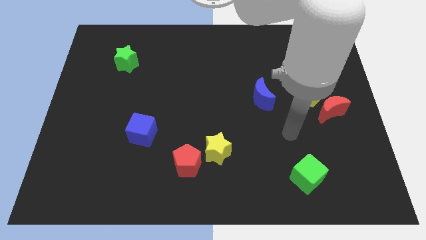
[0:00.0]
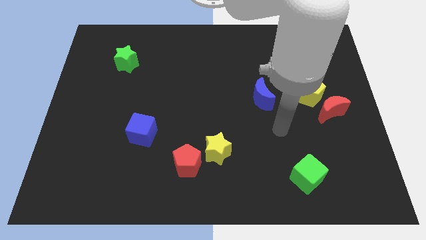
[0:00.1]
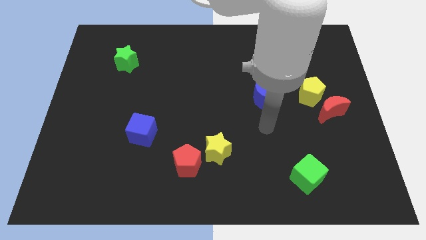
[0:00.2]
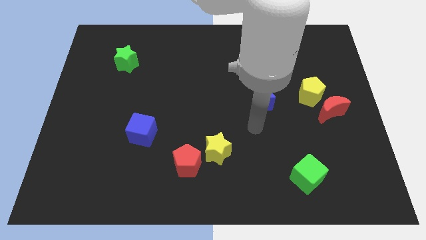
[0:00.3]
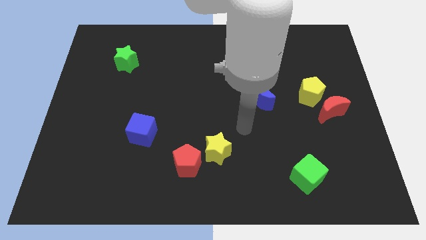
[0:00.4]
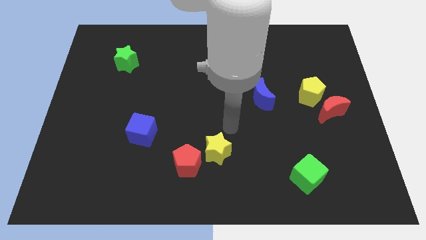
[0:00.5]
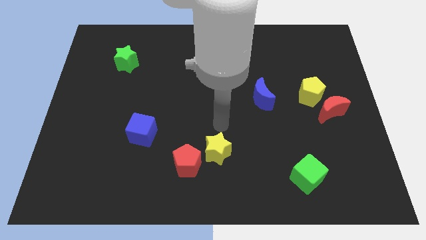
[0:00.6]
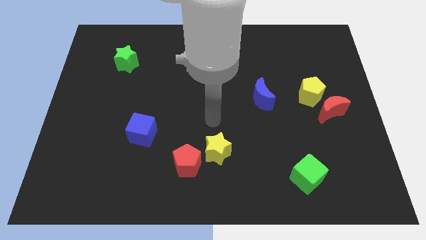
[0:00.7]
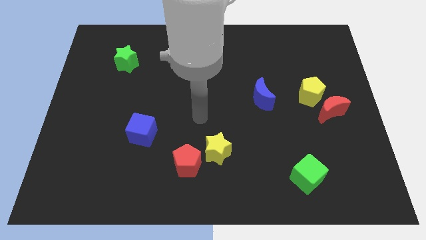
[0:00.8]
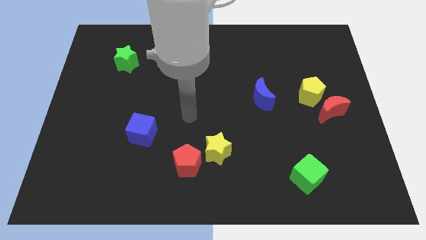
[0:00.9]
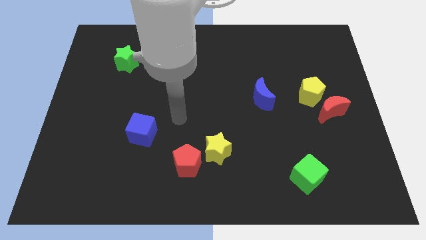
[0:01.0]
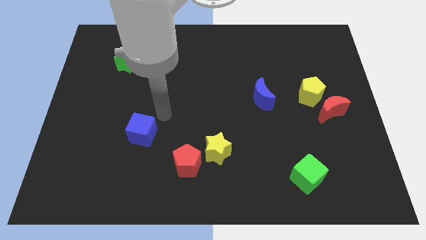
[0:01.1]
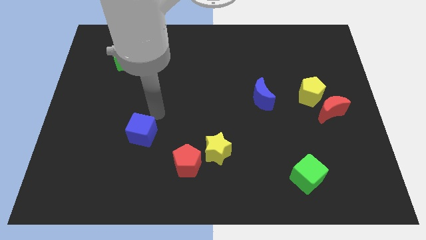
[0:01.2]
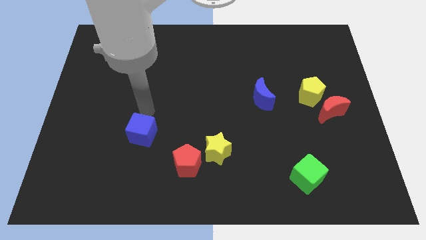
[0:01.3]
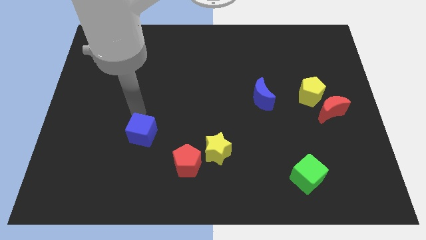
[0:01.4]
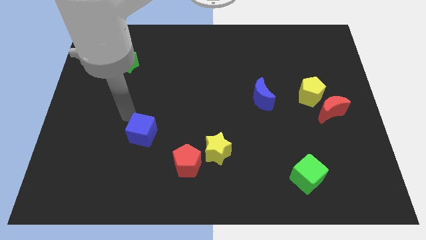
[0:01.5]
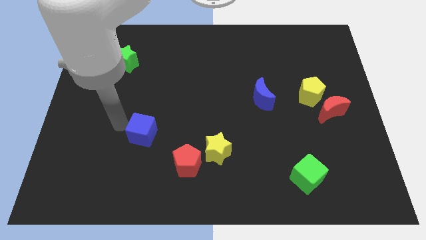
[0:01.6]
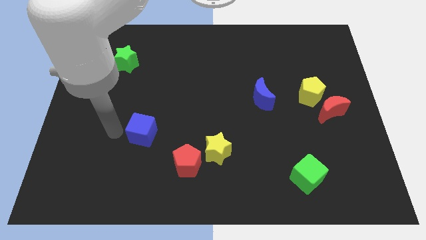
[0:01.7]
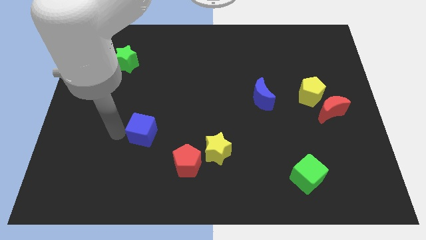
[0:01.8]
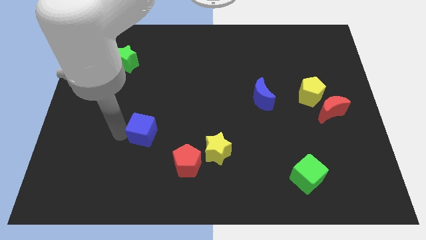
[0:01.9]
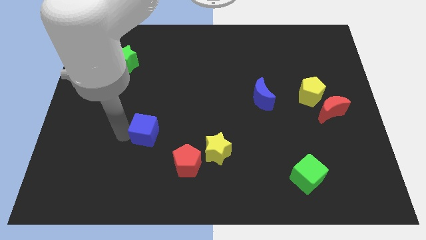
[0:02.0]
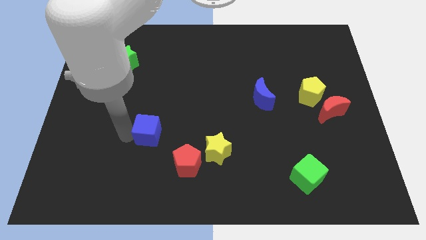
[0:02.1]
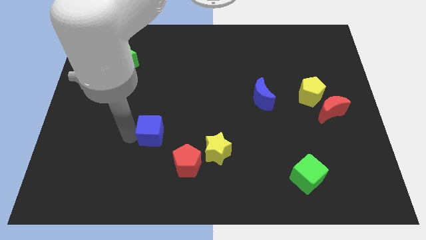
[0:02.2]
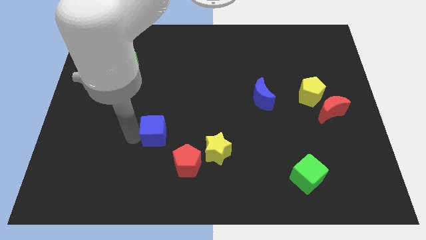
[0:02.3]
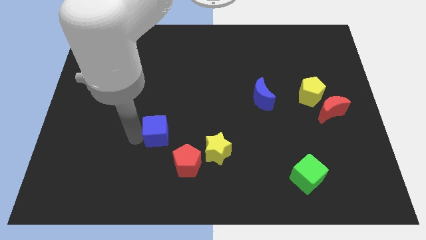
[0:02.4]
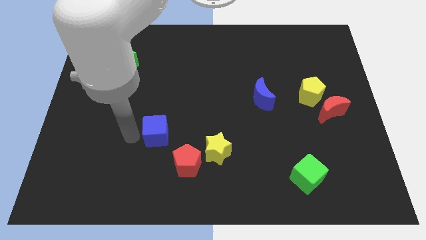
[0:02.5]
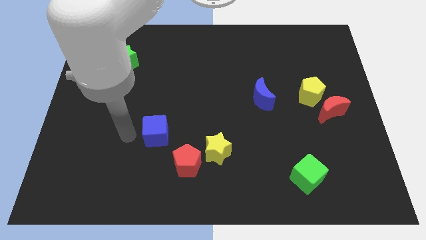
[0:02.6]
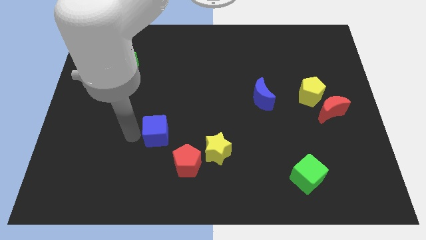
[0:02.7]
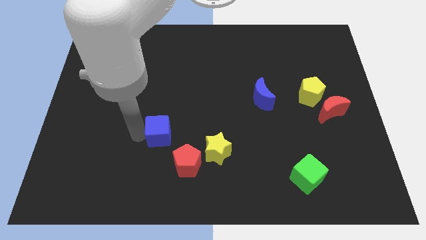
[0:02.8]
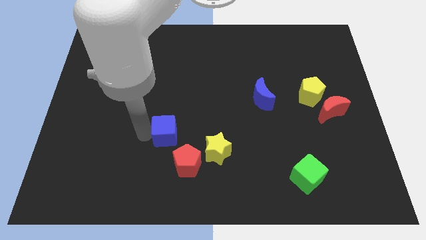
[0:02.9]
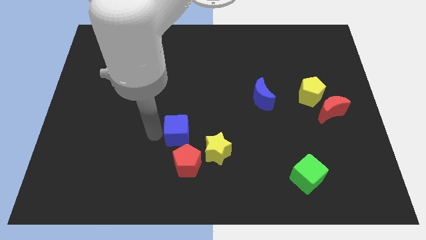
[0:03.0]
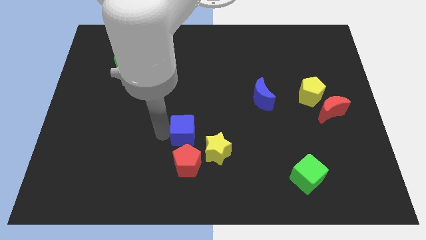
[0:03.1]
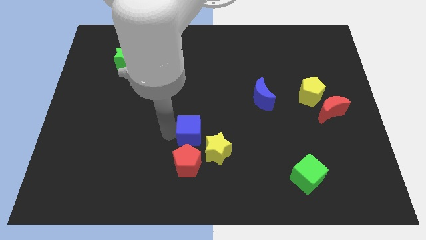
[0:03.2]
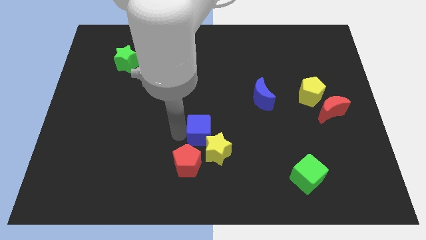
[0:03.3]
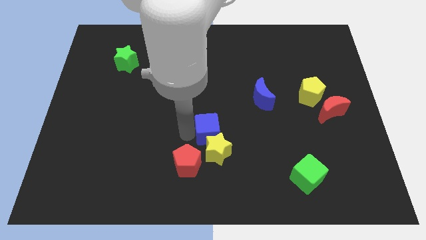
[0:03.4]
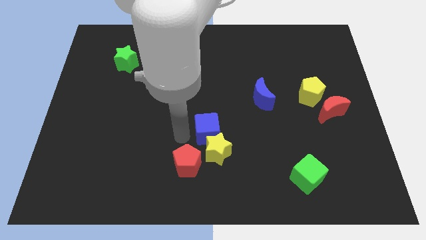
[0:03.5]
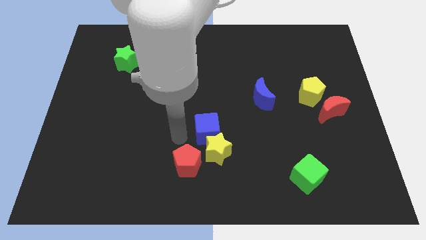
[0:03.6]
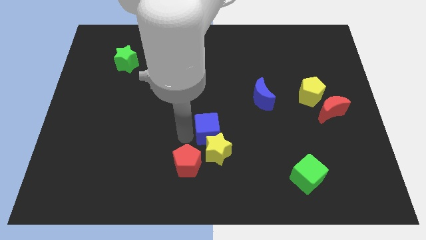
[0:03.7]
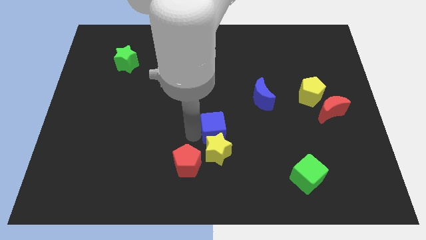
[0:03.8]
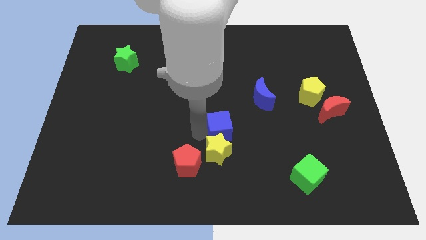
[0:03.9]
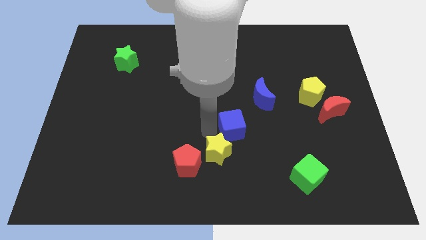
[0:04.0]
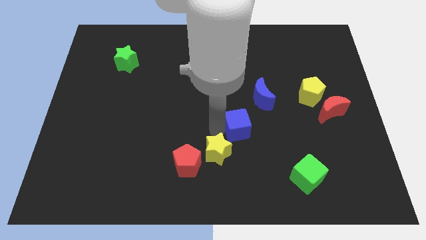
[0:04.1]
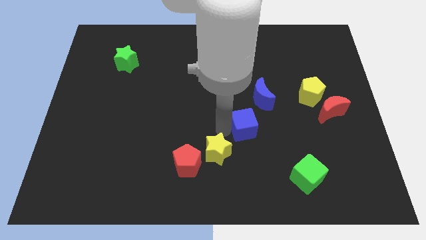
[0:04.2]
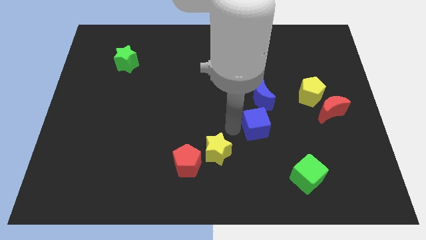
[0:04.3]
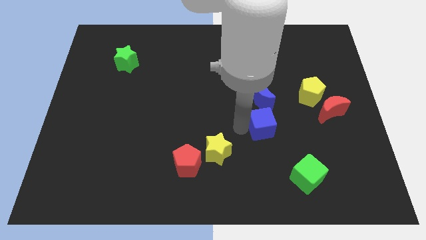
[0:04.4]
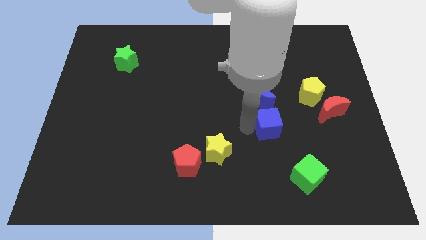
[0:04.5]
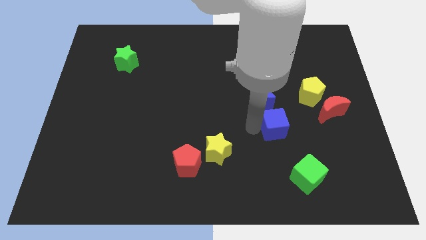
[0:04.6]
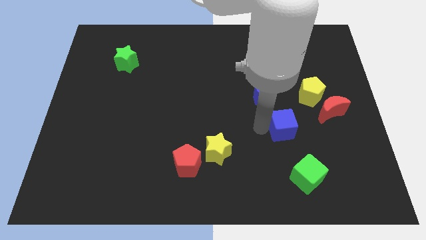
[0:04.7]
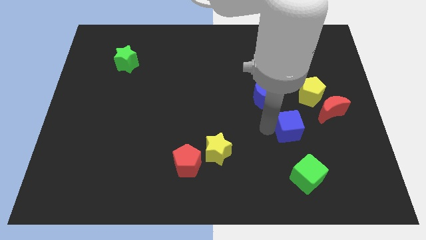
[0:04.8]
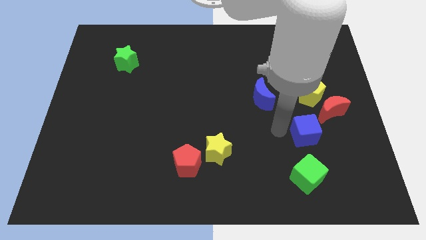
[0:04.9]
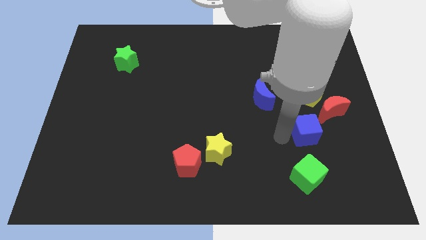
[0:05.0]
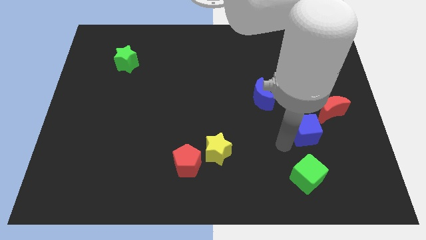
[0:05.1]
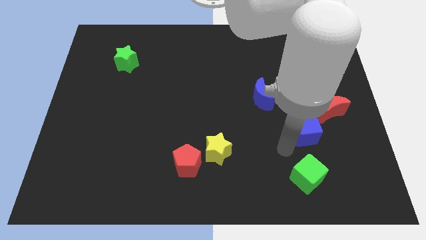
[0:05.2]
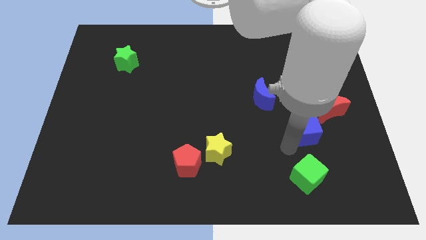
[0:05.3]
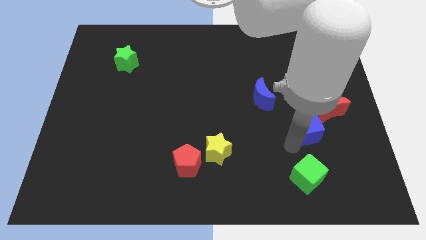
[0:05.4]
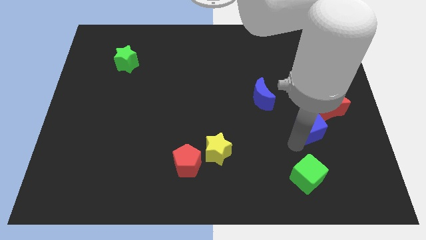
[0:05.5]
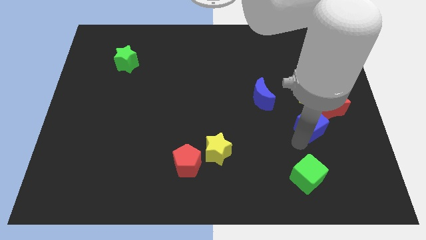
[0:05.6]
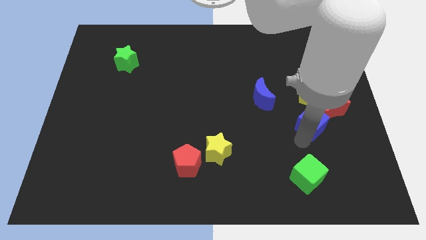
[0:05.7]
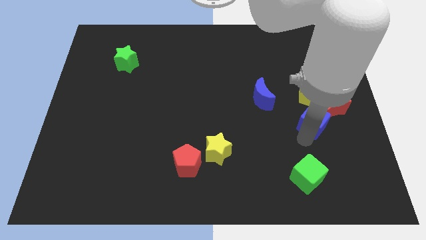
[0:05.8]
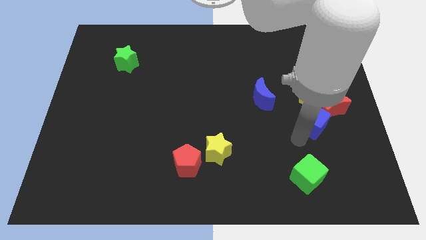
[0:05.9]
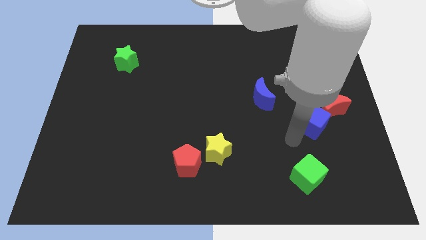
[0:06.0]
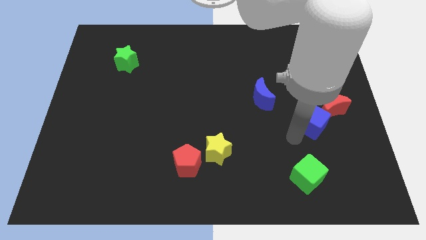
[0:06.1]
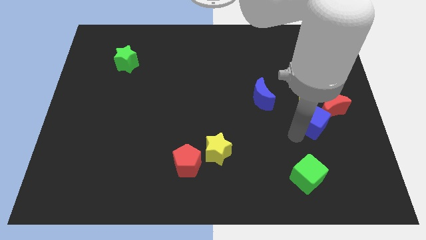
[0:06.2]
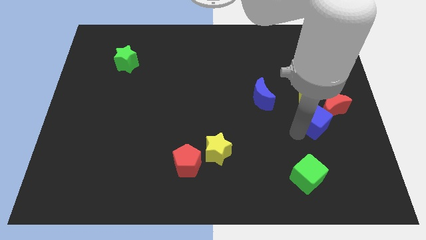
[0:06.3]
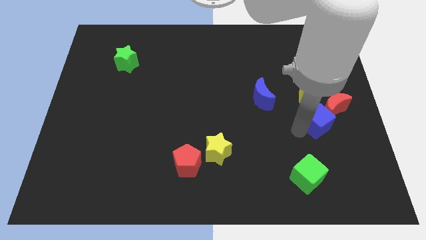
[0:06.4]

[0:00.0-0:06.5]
put the blue cube next to the red moon

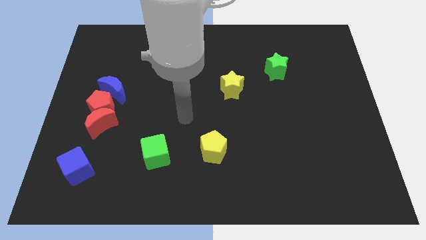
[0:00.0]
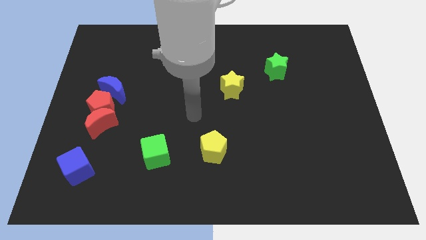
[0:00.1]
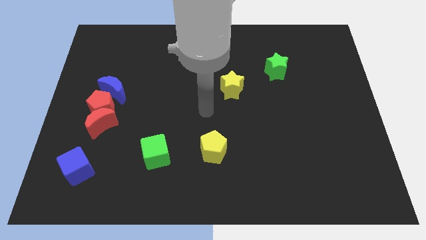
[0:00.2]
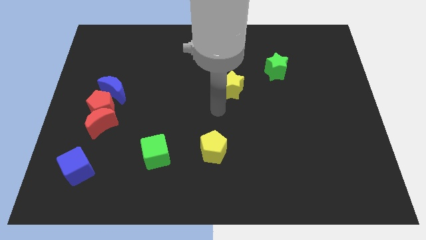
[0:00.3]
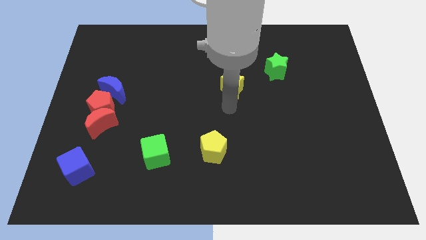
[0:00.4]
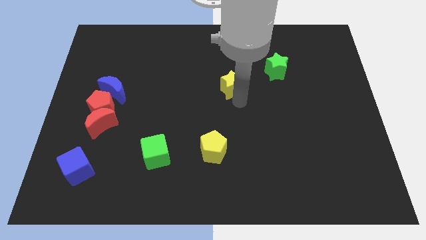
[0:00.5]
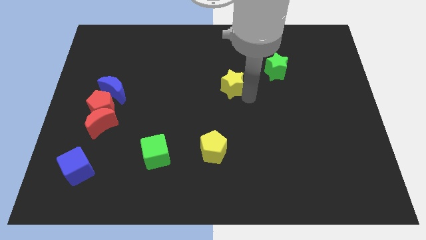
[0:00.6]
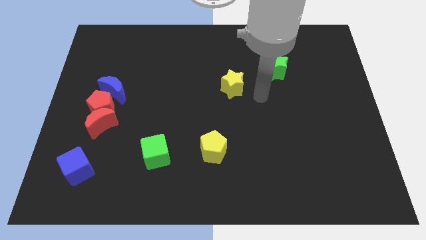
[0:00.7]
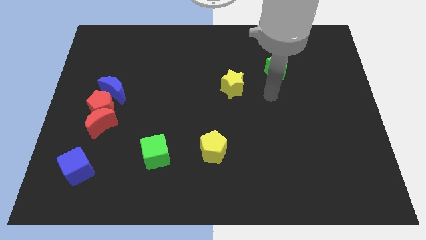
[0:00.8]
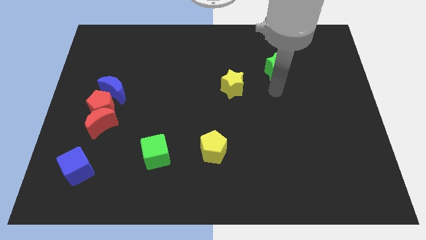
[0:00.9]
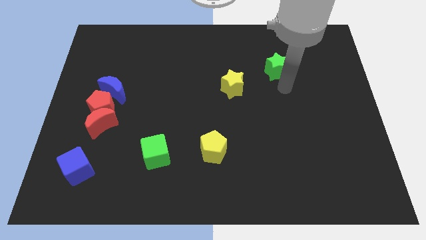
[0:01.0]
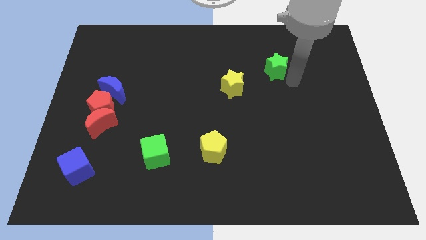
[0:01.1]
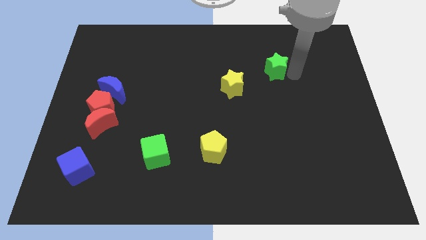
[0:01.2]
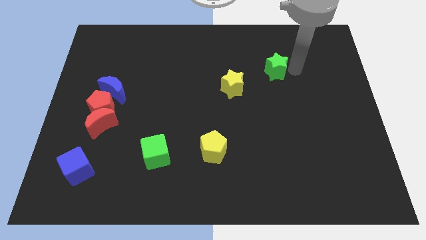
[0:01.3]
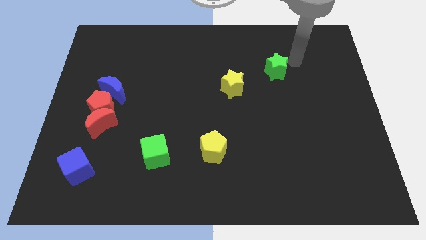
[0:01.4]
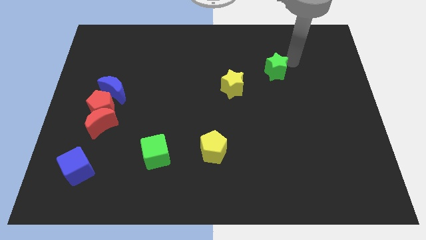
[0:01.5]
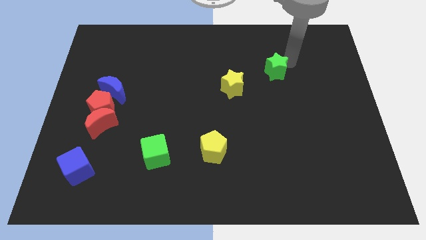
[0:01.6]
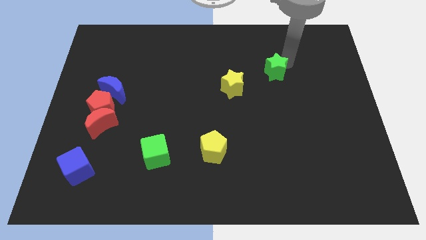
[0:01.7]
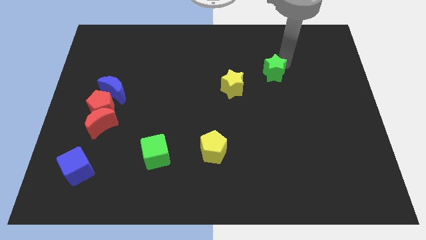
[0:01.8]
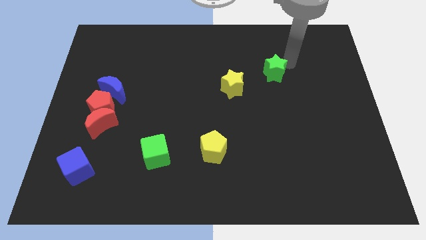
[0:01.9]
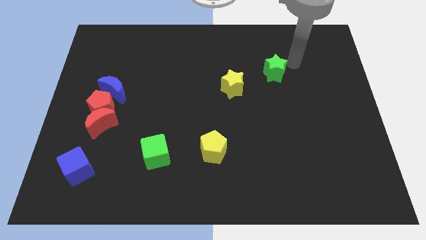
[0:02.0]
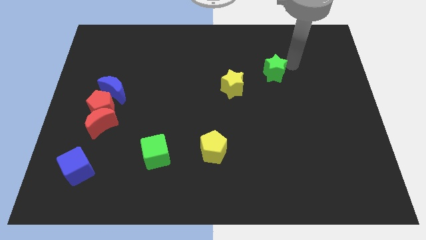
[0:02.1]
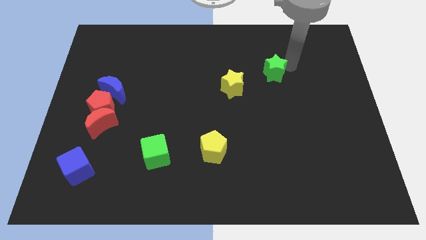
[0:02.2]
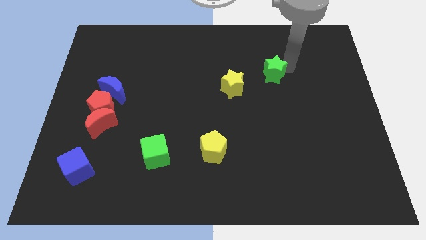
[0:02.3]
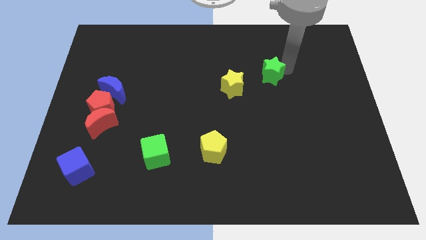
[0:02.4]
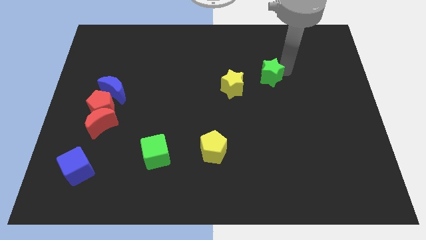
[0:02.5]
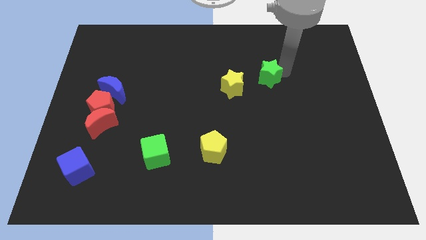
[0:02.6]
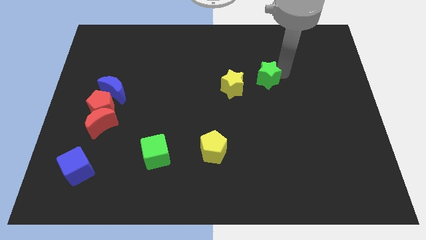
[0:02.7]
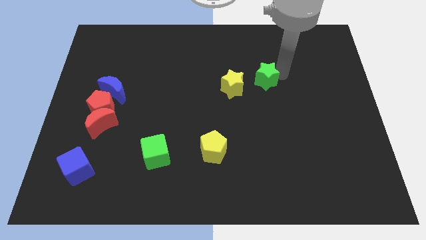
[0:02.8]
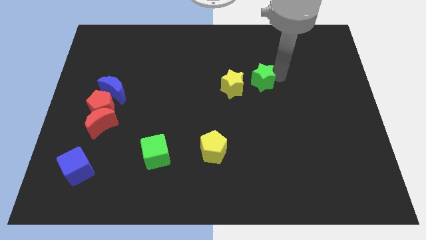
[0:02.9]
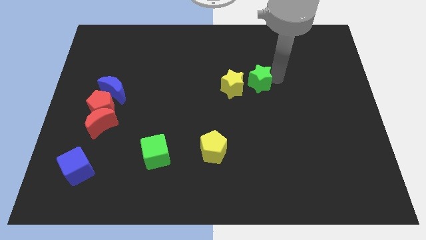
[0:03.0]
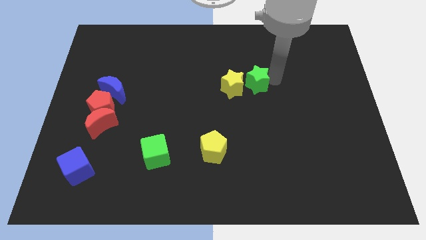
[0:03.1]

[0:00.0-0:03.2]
put the green star close to the yellow star
